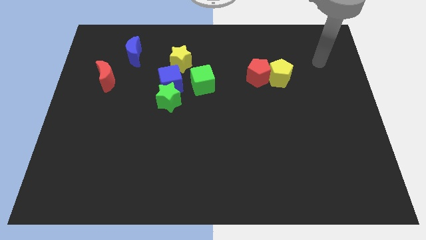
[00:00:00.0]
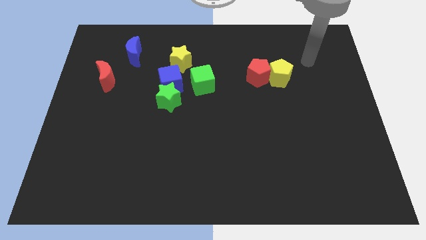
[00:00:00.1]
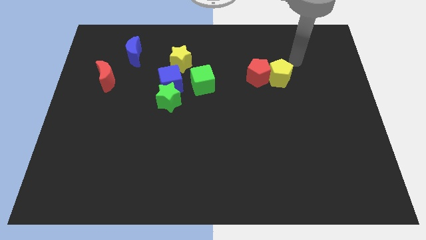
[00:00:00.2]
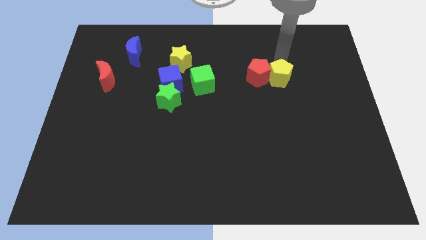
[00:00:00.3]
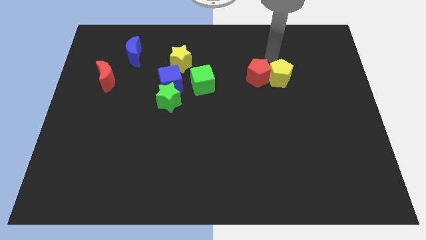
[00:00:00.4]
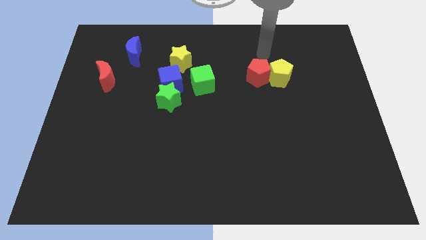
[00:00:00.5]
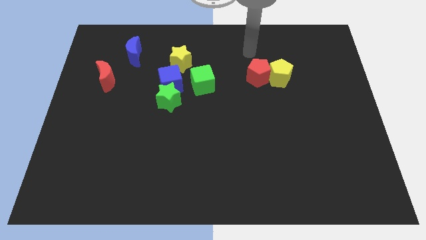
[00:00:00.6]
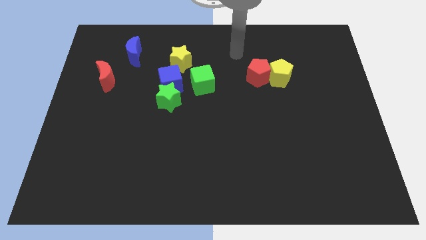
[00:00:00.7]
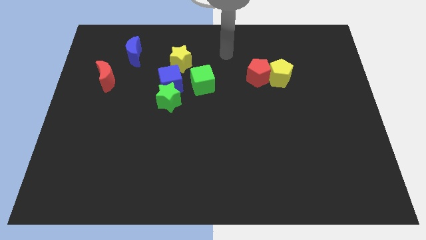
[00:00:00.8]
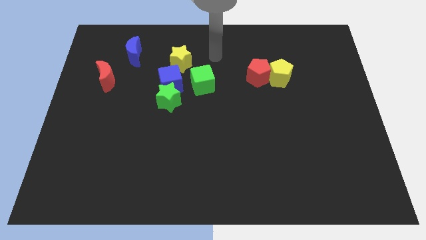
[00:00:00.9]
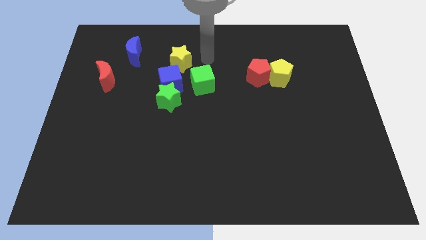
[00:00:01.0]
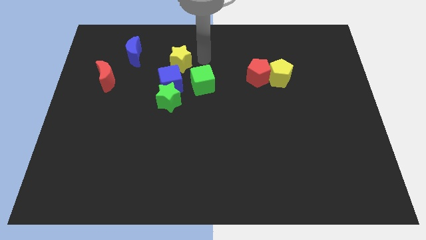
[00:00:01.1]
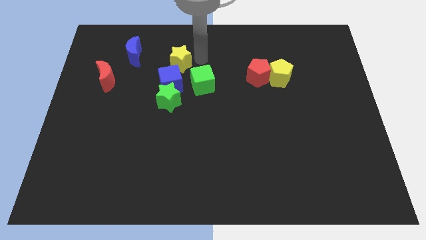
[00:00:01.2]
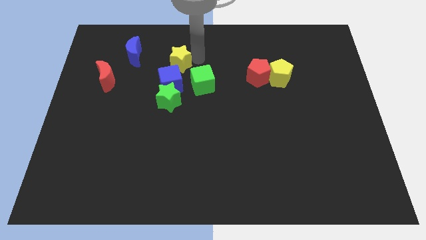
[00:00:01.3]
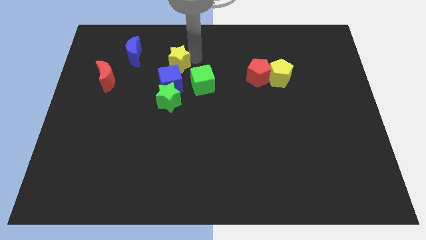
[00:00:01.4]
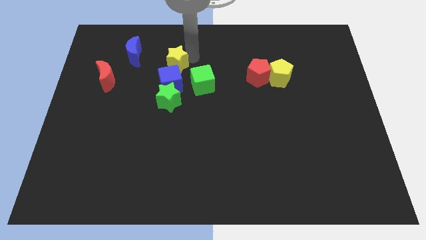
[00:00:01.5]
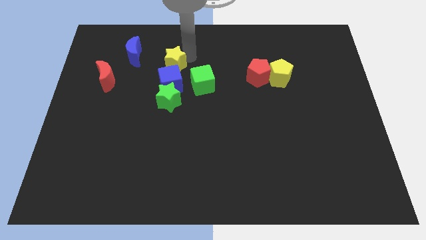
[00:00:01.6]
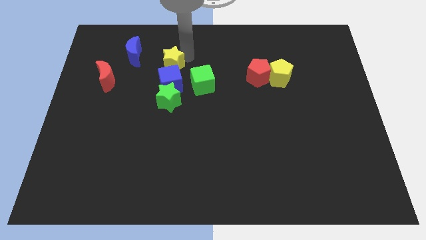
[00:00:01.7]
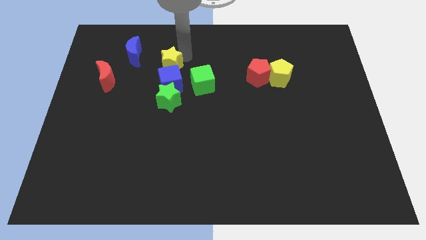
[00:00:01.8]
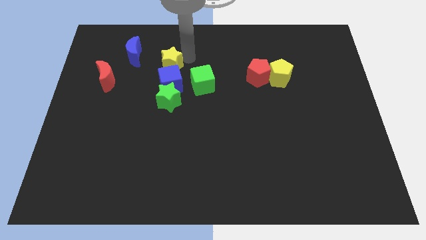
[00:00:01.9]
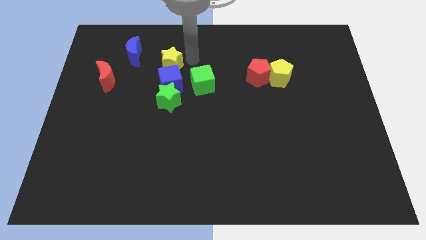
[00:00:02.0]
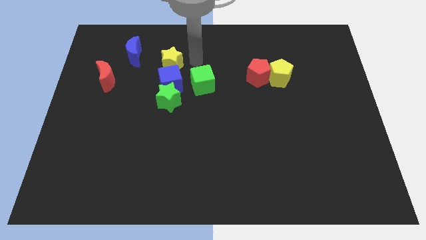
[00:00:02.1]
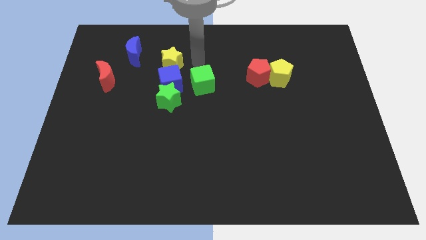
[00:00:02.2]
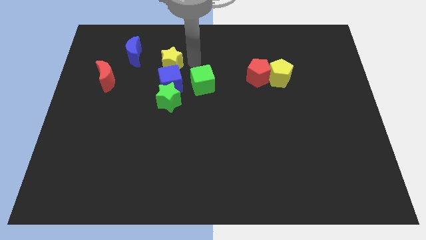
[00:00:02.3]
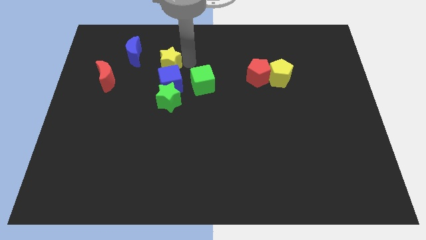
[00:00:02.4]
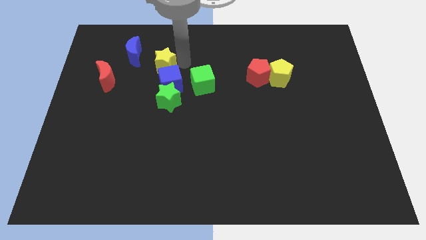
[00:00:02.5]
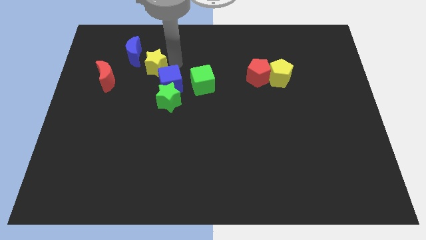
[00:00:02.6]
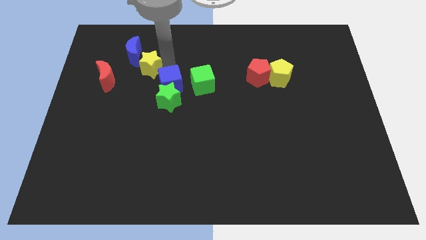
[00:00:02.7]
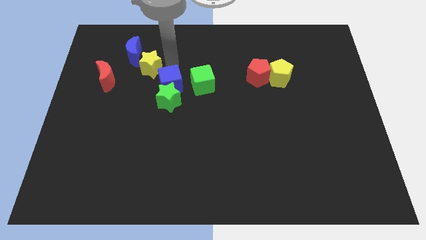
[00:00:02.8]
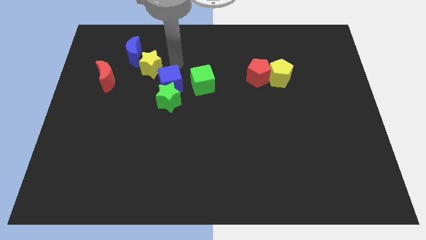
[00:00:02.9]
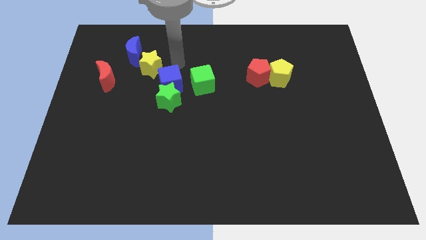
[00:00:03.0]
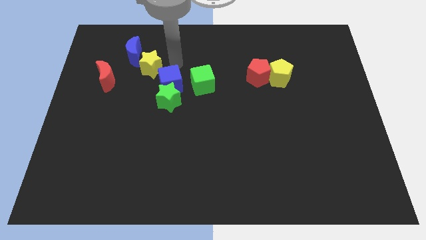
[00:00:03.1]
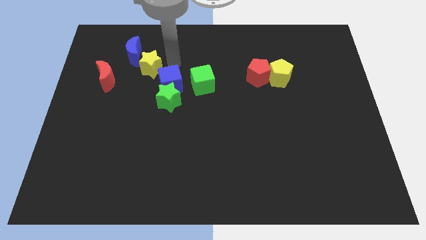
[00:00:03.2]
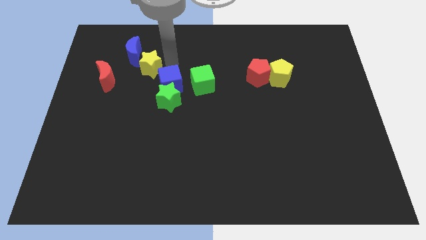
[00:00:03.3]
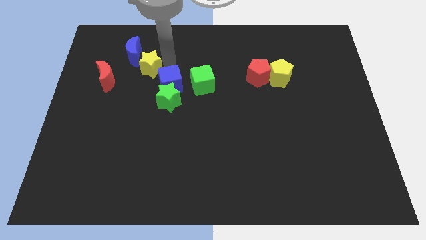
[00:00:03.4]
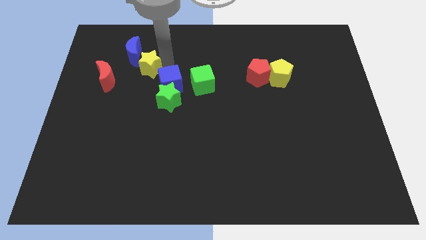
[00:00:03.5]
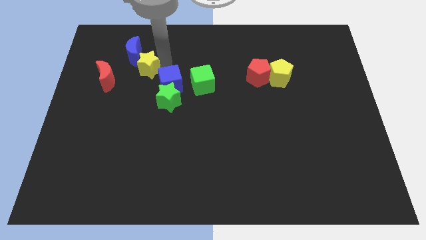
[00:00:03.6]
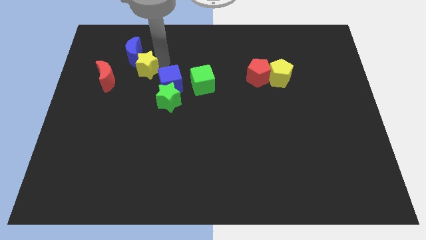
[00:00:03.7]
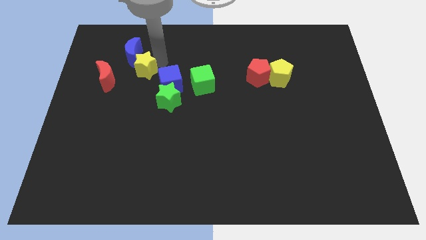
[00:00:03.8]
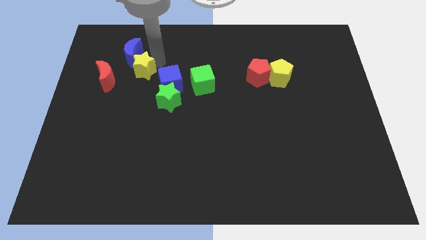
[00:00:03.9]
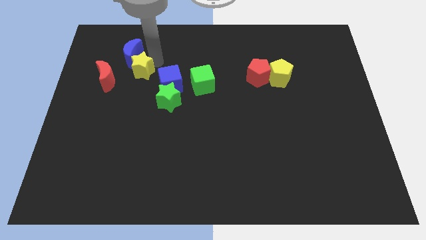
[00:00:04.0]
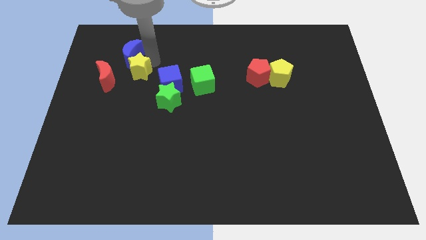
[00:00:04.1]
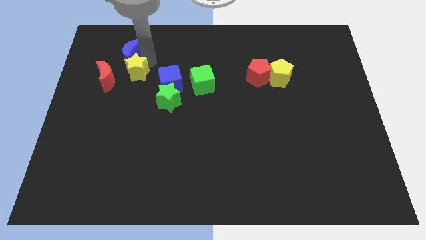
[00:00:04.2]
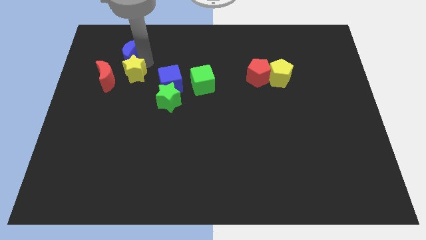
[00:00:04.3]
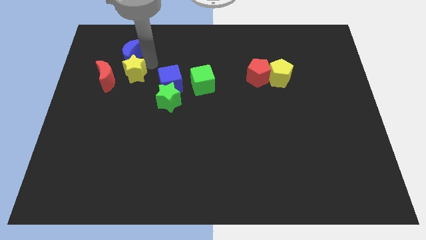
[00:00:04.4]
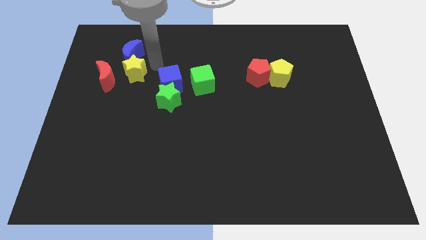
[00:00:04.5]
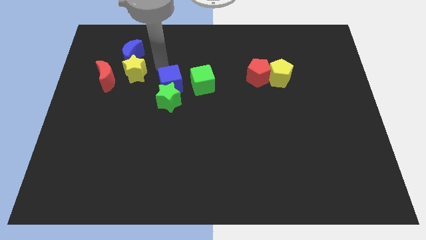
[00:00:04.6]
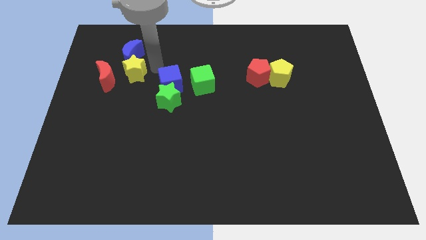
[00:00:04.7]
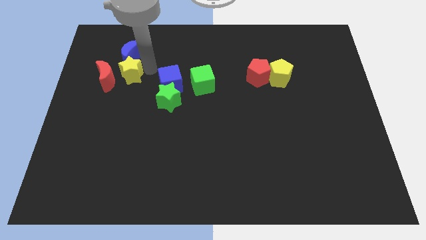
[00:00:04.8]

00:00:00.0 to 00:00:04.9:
push the yellow star to the red moon

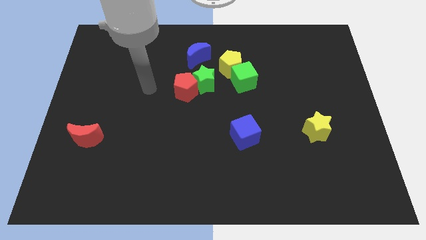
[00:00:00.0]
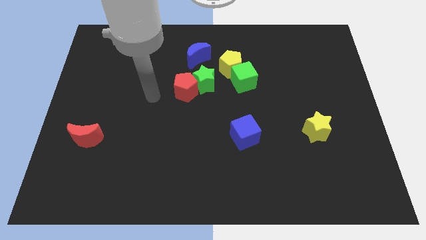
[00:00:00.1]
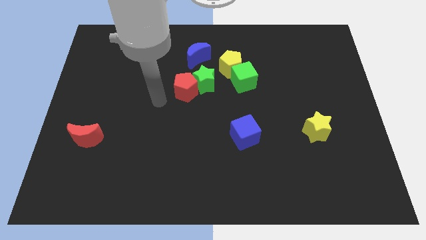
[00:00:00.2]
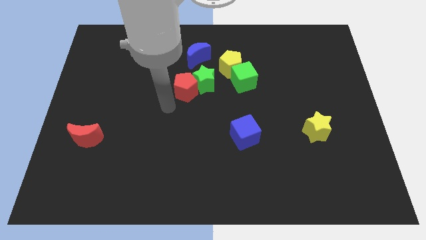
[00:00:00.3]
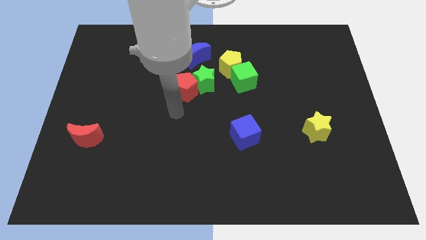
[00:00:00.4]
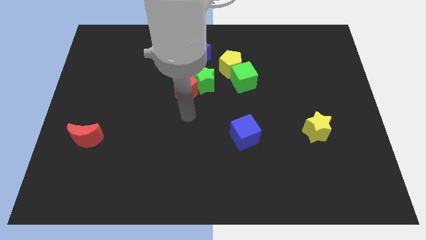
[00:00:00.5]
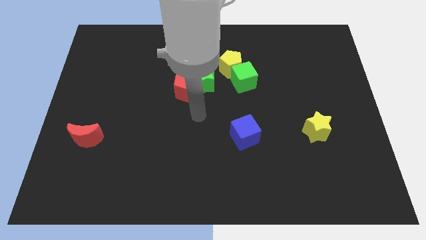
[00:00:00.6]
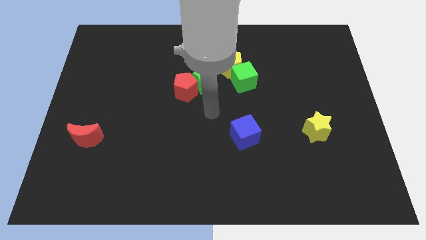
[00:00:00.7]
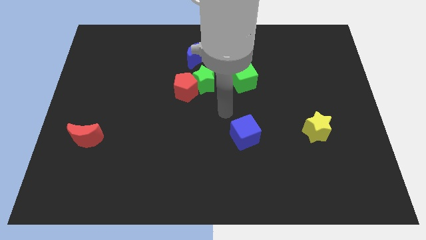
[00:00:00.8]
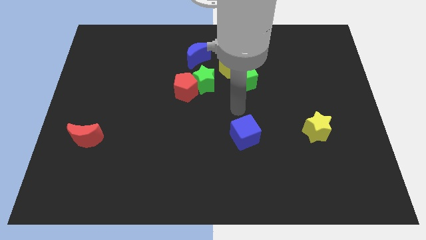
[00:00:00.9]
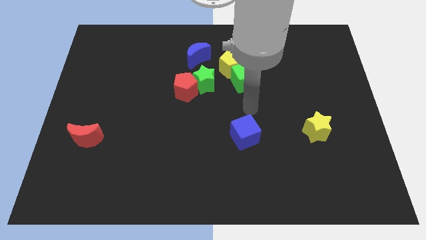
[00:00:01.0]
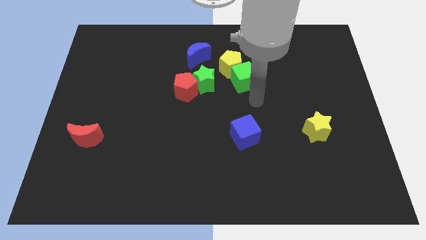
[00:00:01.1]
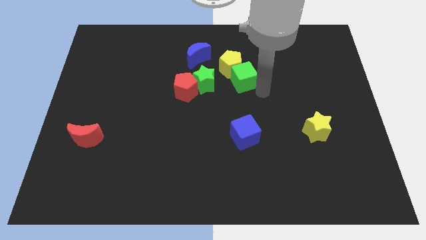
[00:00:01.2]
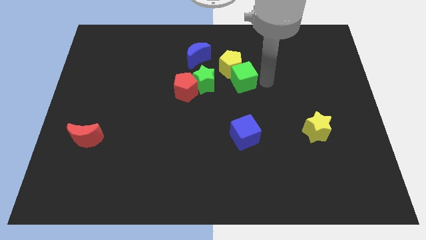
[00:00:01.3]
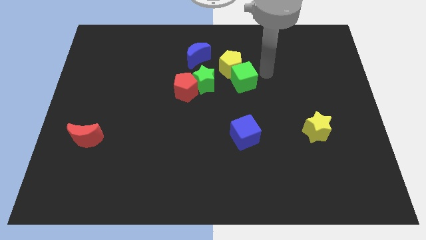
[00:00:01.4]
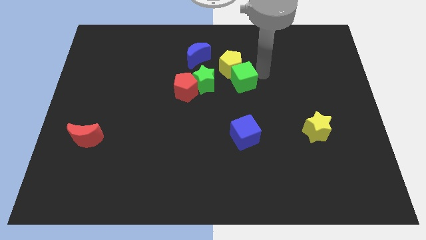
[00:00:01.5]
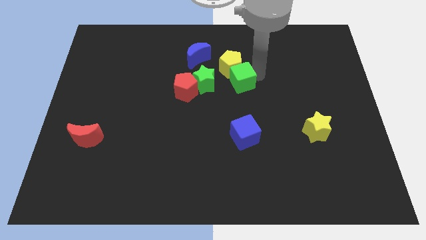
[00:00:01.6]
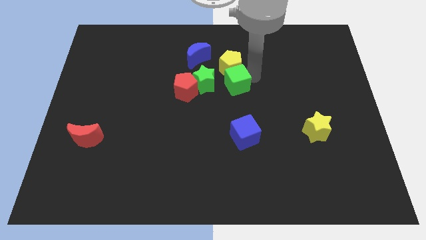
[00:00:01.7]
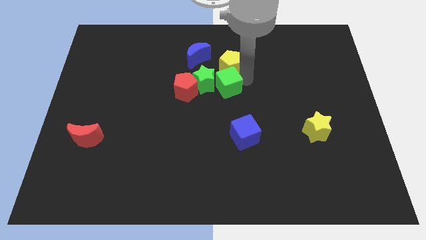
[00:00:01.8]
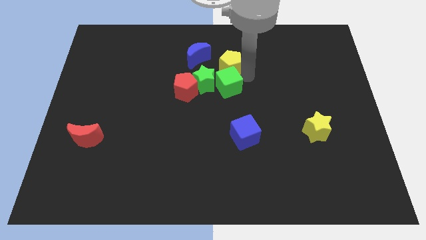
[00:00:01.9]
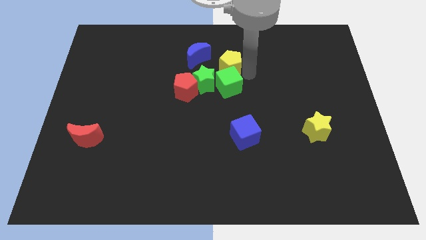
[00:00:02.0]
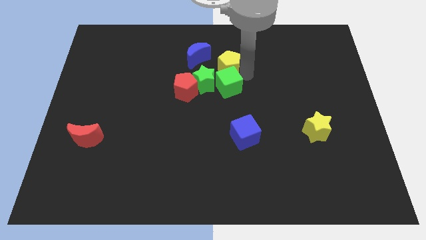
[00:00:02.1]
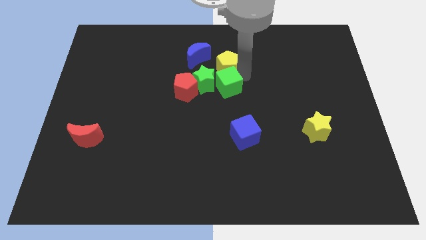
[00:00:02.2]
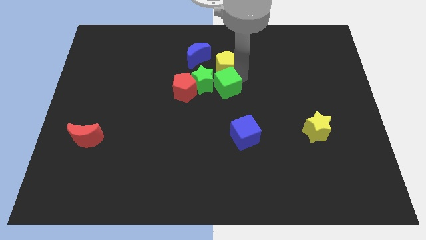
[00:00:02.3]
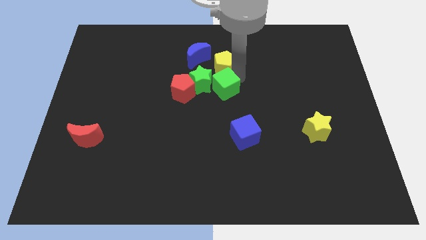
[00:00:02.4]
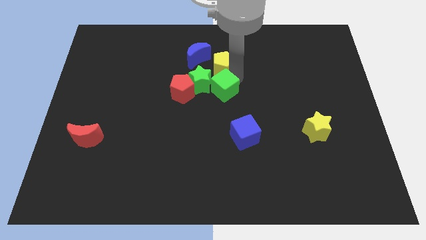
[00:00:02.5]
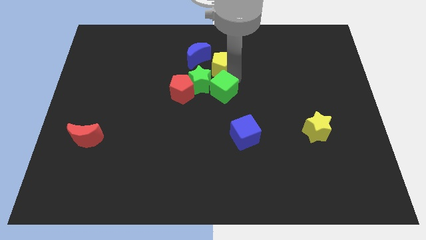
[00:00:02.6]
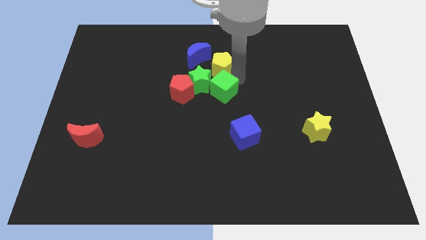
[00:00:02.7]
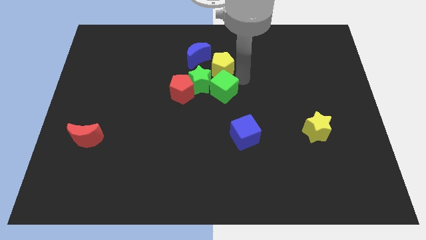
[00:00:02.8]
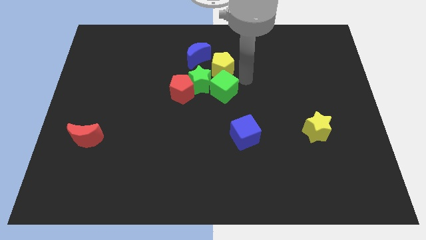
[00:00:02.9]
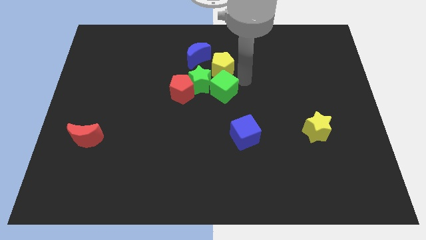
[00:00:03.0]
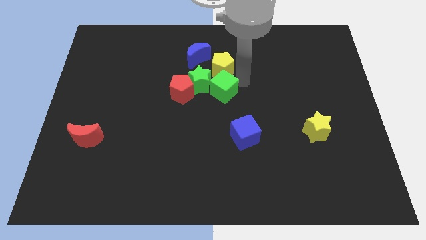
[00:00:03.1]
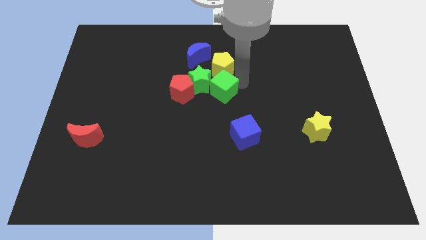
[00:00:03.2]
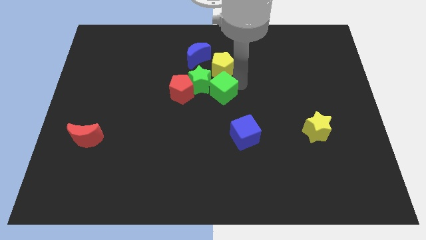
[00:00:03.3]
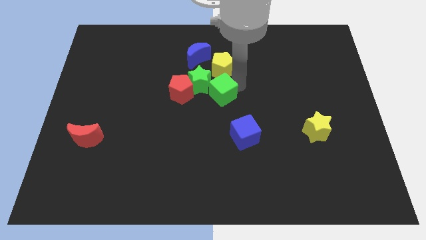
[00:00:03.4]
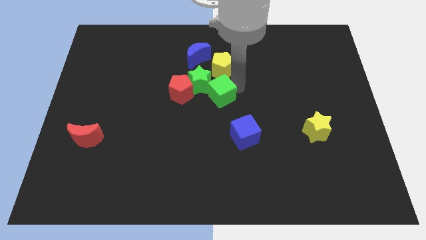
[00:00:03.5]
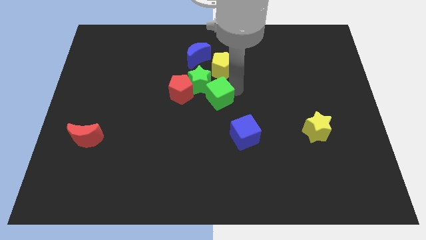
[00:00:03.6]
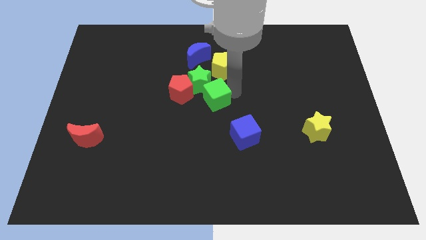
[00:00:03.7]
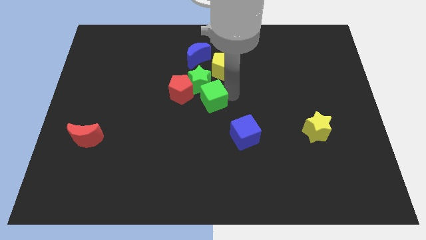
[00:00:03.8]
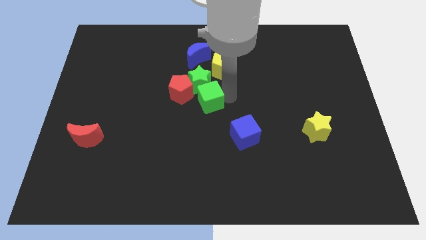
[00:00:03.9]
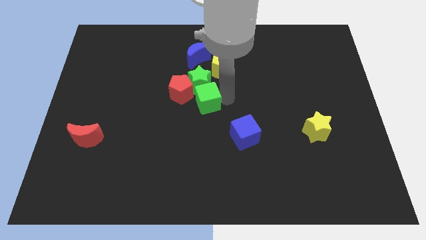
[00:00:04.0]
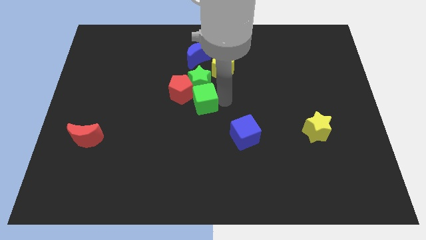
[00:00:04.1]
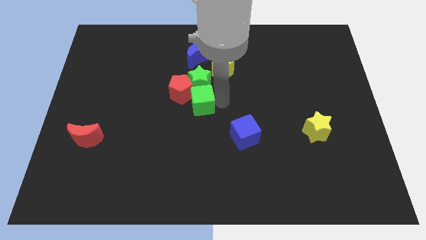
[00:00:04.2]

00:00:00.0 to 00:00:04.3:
put the green cube towards the red pentagon
